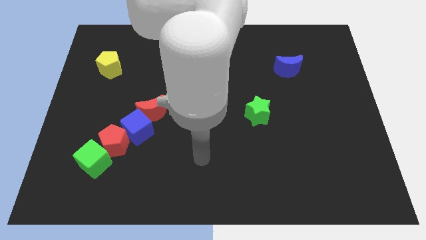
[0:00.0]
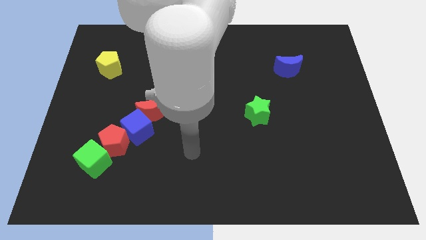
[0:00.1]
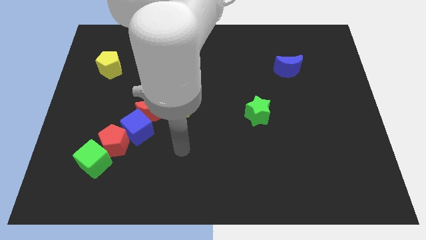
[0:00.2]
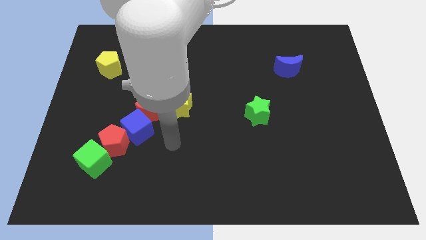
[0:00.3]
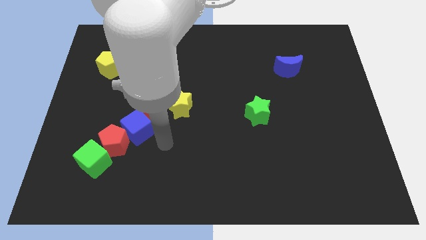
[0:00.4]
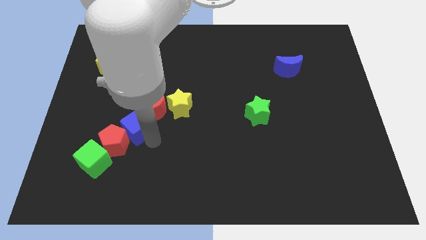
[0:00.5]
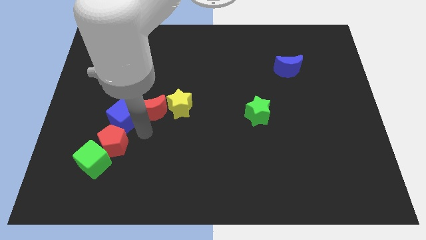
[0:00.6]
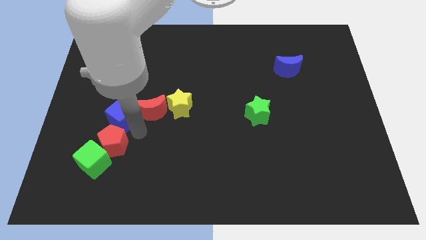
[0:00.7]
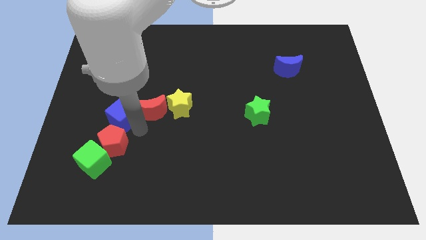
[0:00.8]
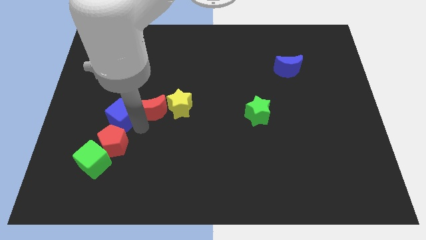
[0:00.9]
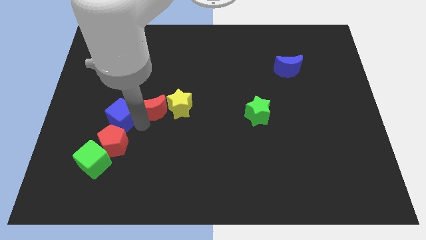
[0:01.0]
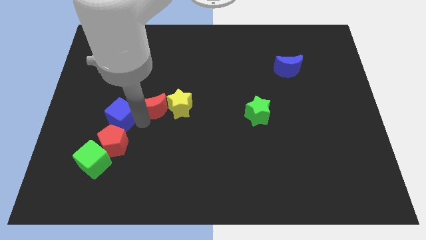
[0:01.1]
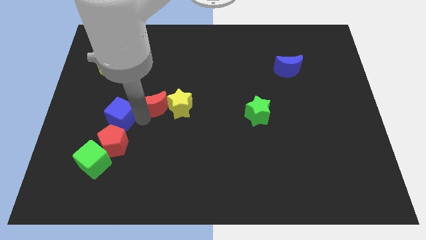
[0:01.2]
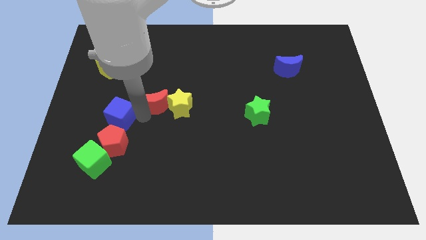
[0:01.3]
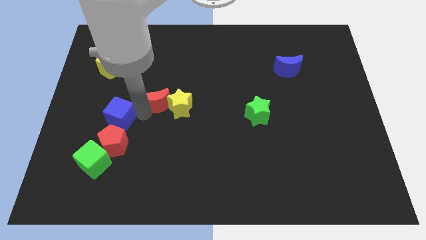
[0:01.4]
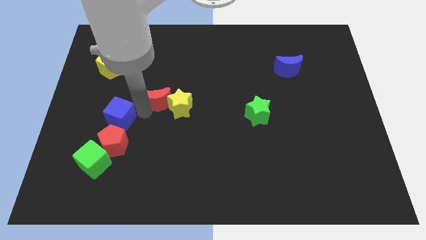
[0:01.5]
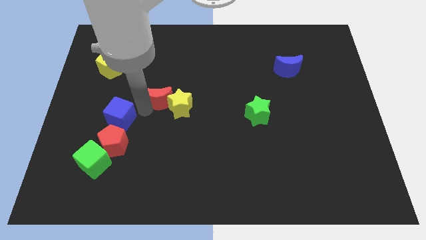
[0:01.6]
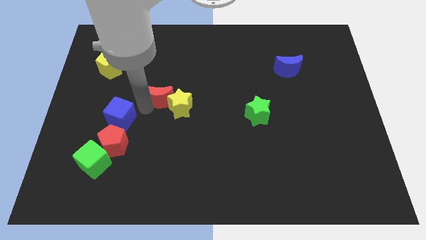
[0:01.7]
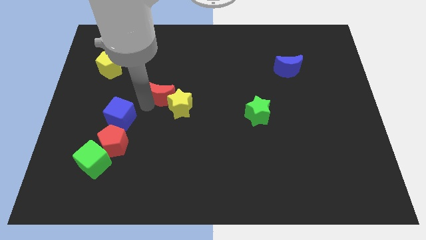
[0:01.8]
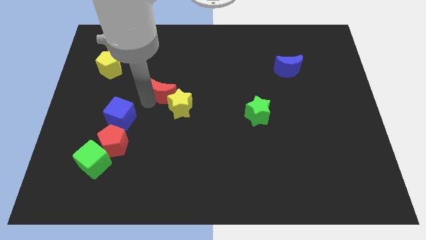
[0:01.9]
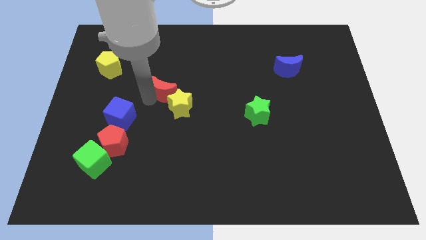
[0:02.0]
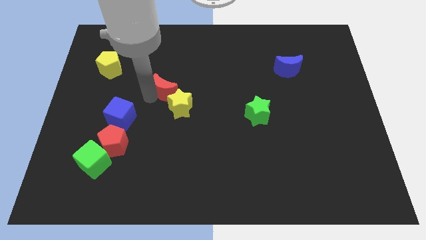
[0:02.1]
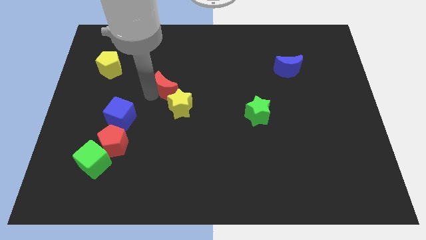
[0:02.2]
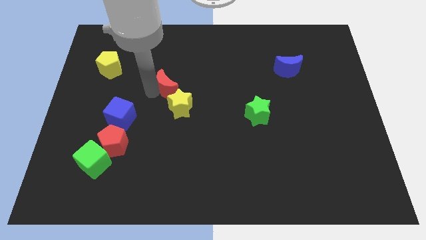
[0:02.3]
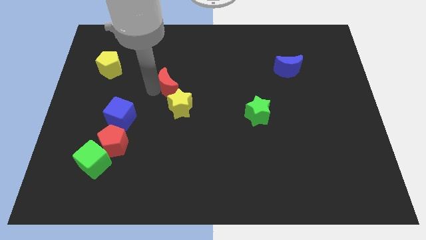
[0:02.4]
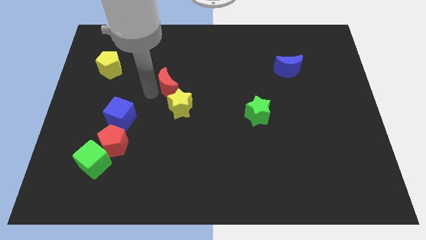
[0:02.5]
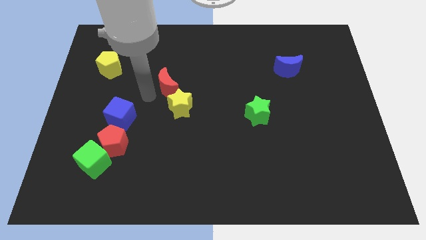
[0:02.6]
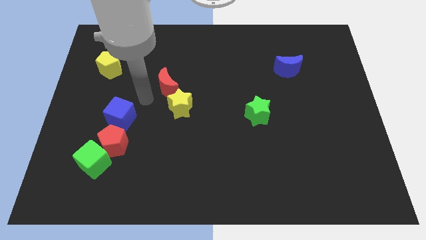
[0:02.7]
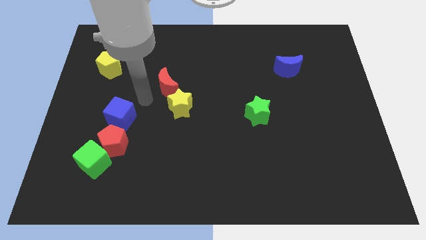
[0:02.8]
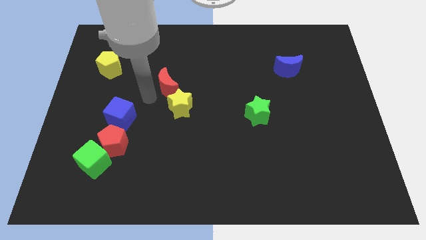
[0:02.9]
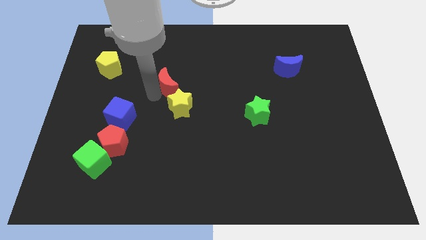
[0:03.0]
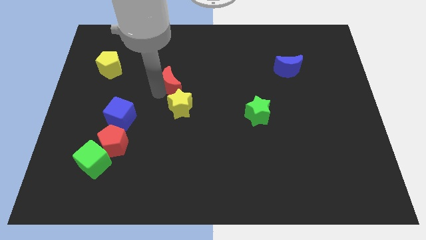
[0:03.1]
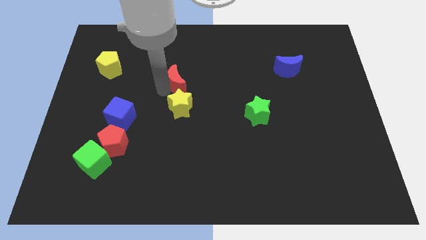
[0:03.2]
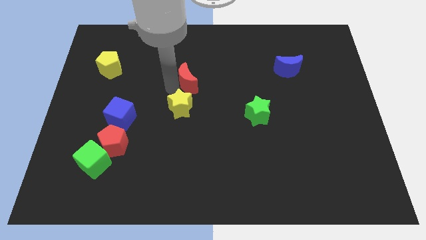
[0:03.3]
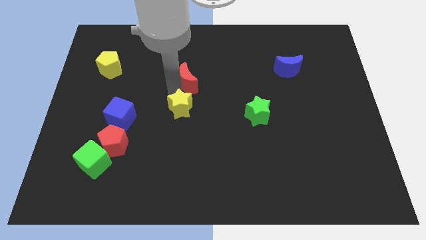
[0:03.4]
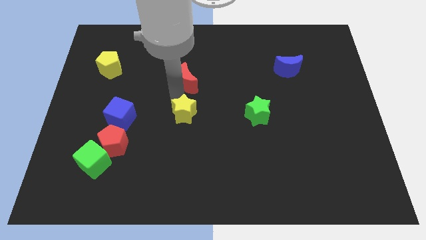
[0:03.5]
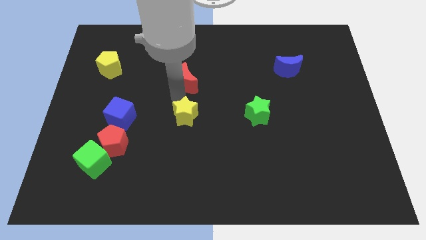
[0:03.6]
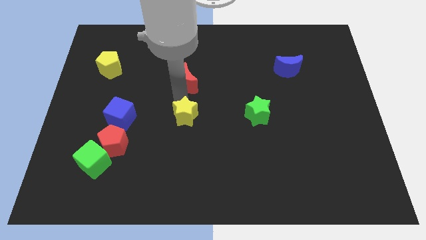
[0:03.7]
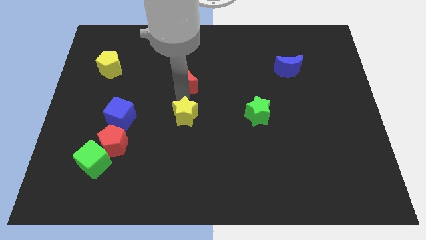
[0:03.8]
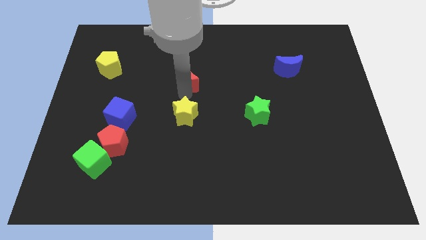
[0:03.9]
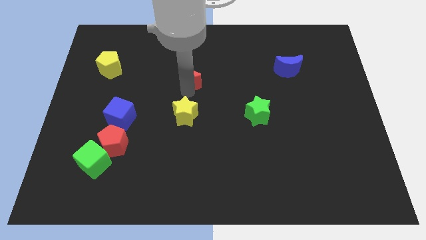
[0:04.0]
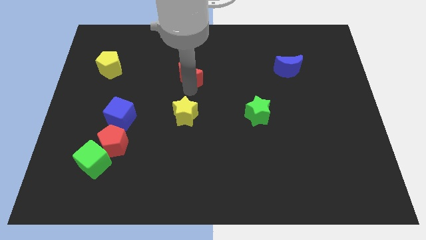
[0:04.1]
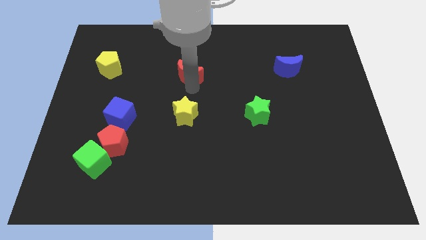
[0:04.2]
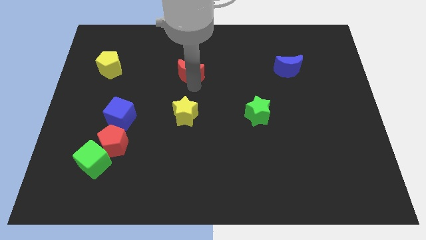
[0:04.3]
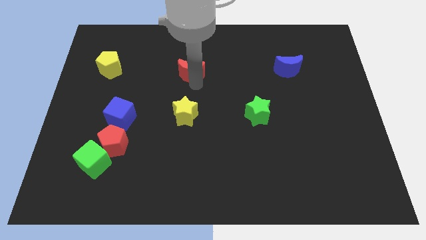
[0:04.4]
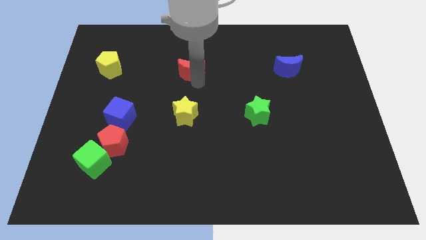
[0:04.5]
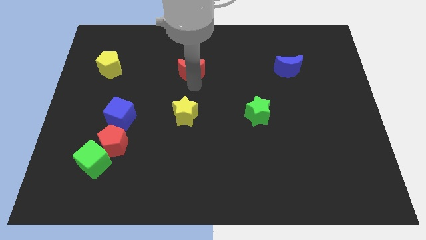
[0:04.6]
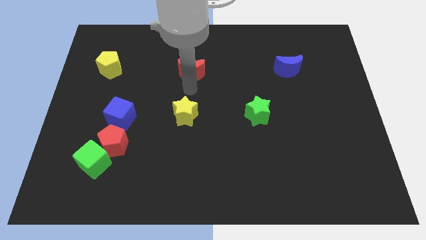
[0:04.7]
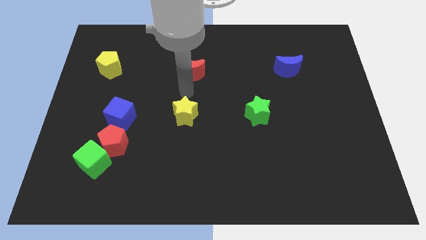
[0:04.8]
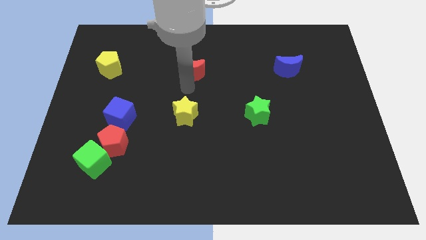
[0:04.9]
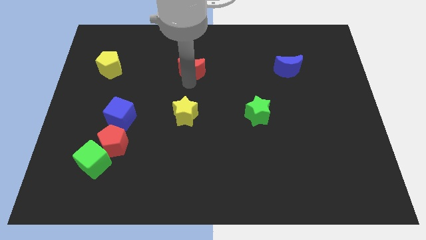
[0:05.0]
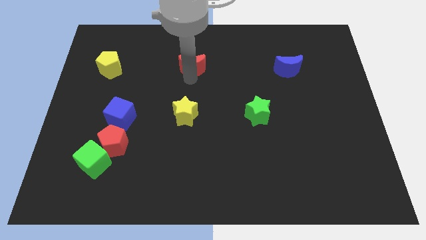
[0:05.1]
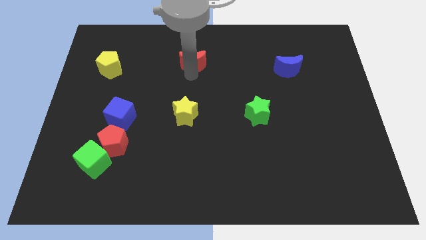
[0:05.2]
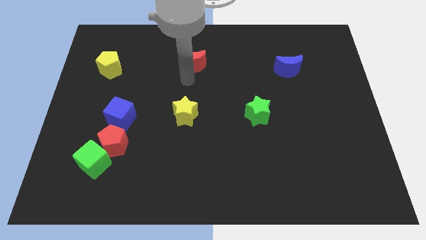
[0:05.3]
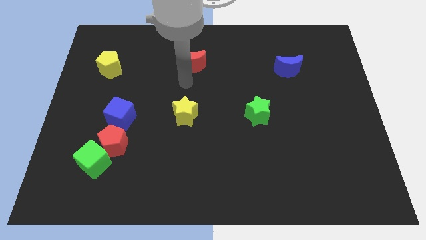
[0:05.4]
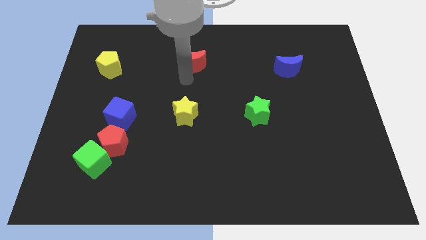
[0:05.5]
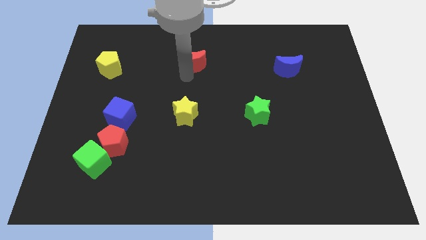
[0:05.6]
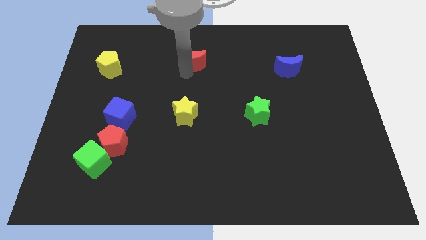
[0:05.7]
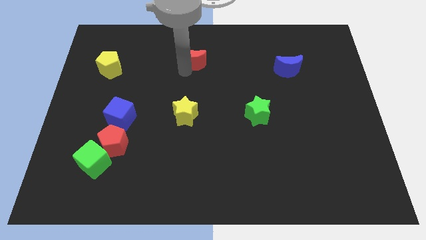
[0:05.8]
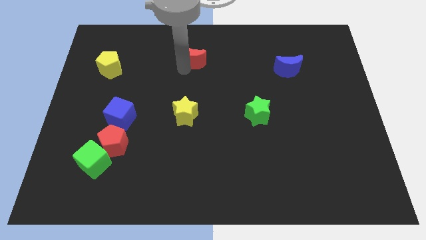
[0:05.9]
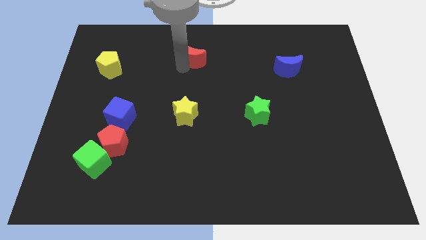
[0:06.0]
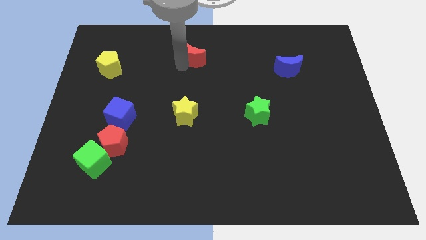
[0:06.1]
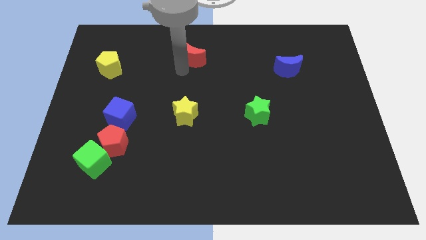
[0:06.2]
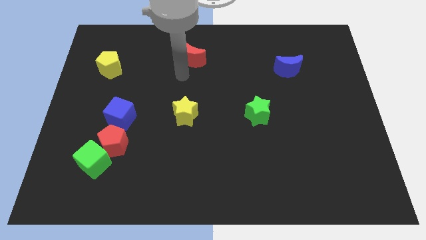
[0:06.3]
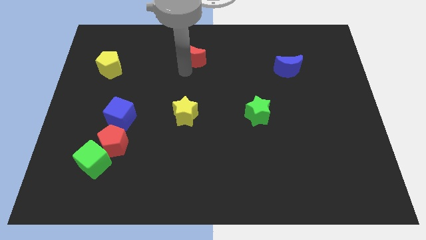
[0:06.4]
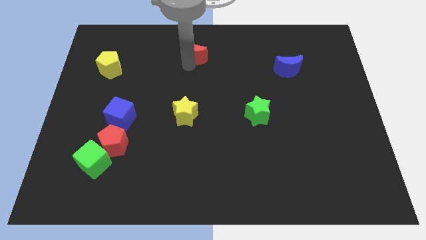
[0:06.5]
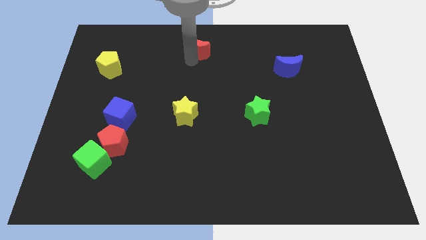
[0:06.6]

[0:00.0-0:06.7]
move the red moon to the top side

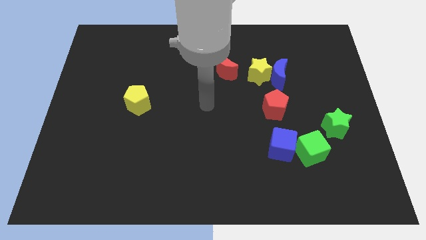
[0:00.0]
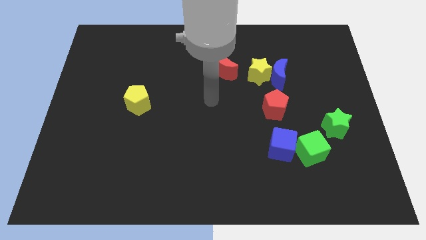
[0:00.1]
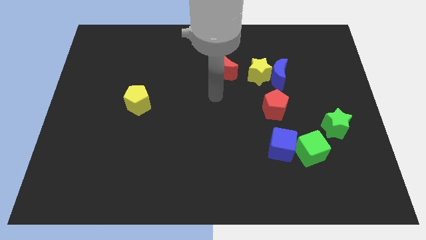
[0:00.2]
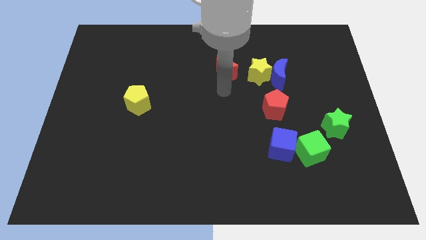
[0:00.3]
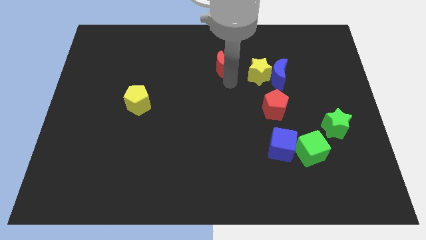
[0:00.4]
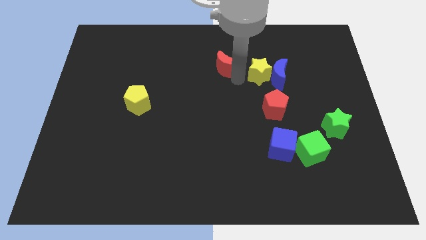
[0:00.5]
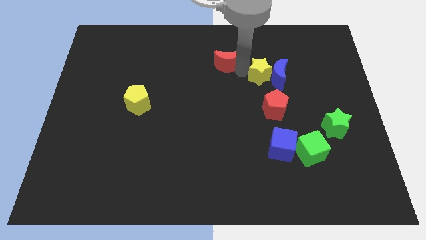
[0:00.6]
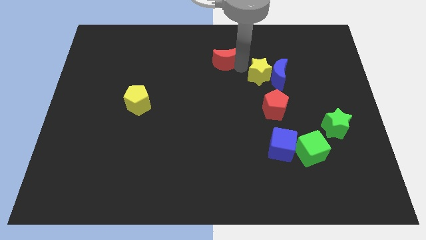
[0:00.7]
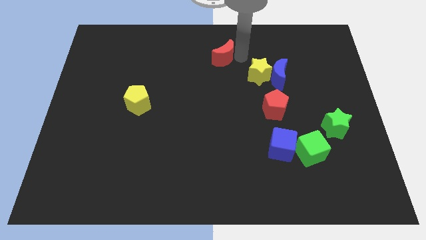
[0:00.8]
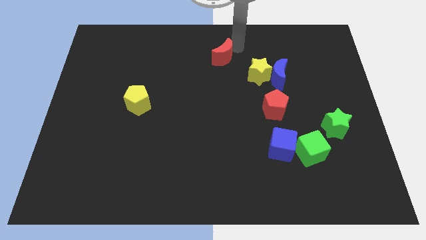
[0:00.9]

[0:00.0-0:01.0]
put the red moon to the top side
